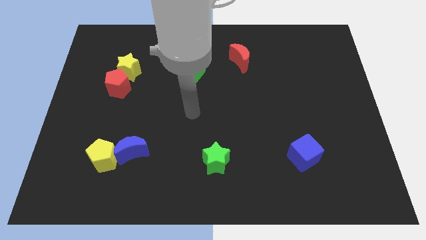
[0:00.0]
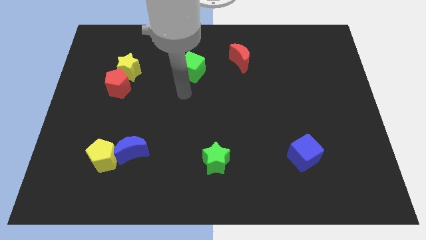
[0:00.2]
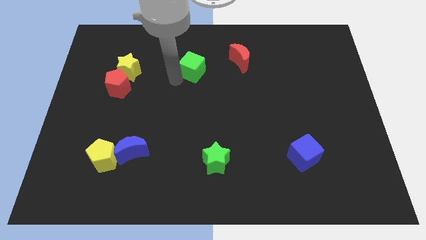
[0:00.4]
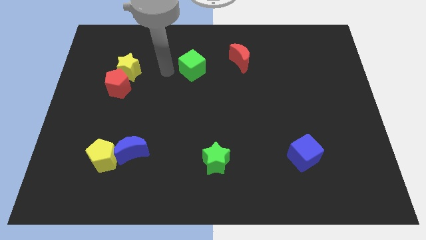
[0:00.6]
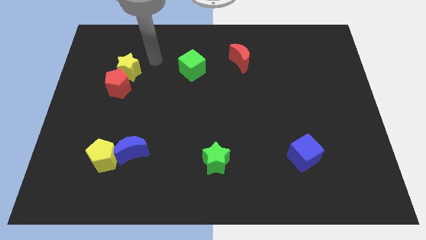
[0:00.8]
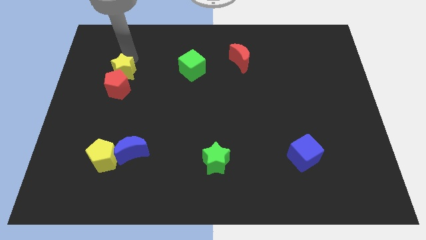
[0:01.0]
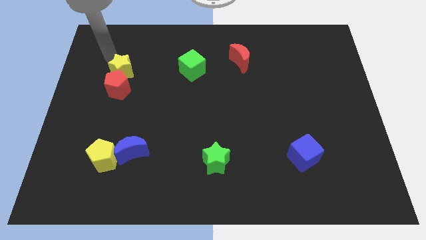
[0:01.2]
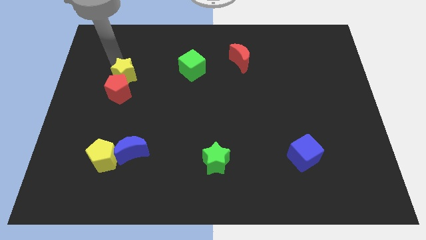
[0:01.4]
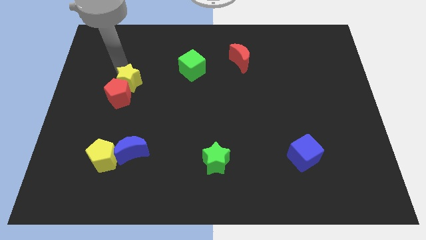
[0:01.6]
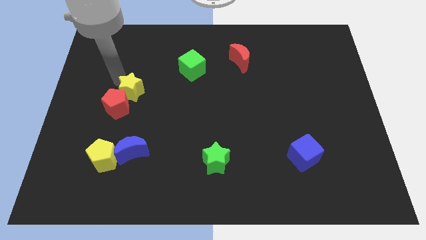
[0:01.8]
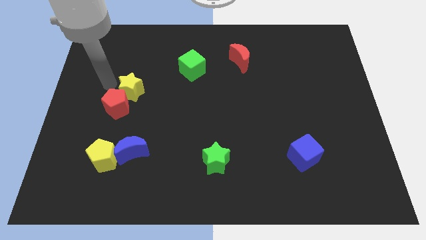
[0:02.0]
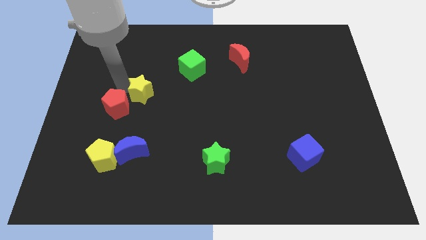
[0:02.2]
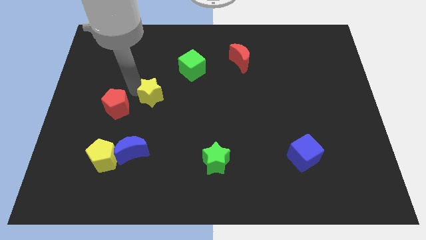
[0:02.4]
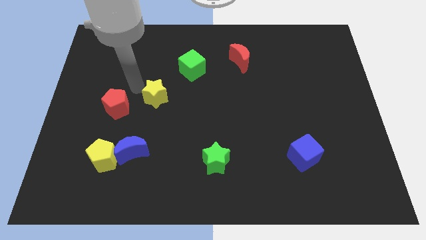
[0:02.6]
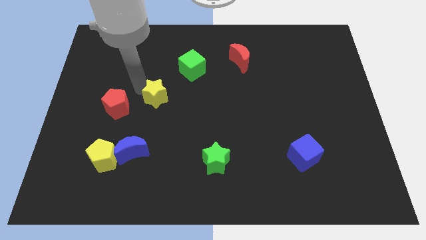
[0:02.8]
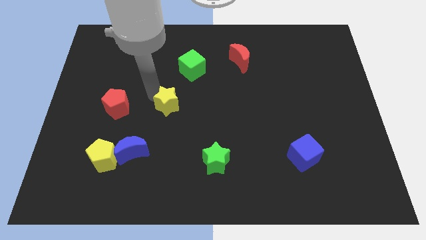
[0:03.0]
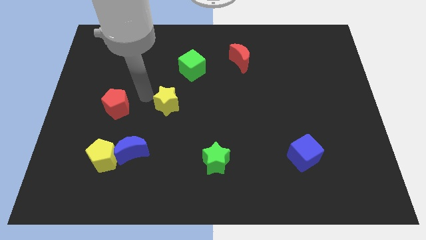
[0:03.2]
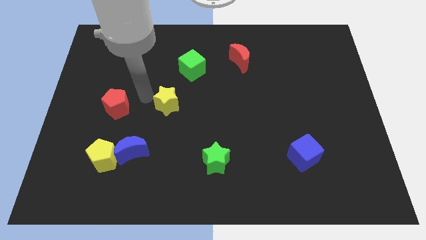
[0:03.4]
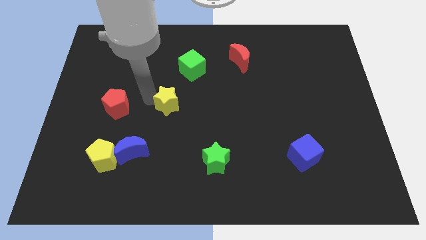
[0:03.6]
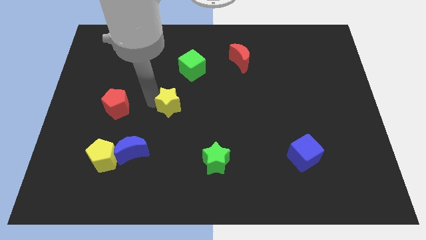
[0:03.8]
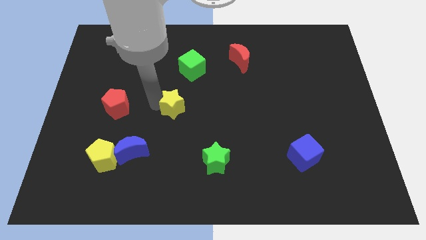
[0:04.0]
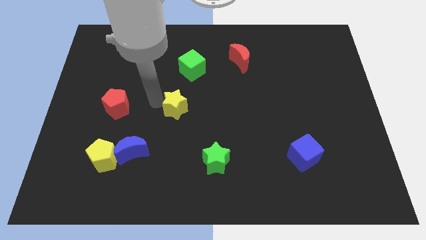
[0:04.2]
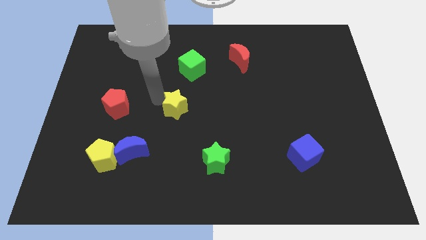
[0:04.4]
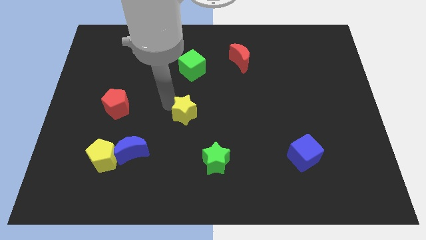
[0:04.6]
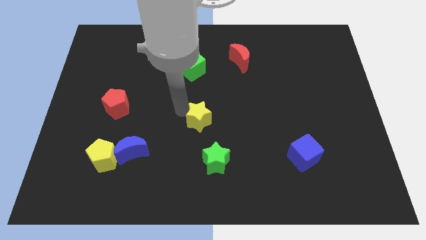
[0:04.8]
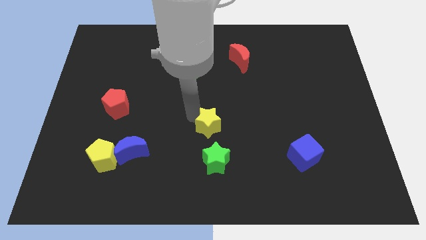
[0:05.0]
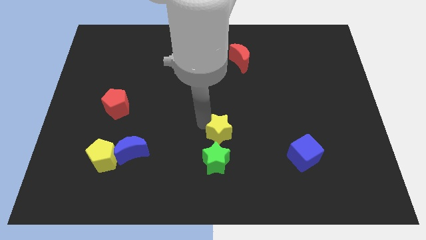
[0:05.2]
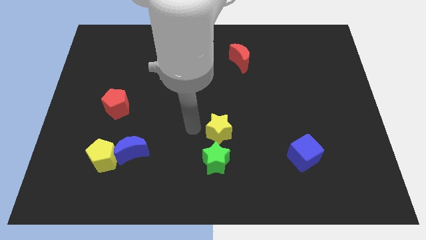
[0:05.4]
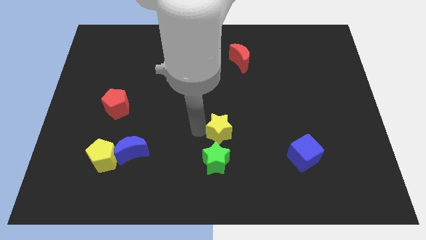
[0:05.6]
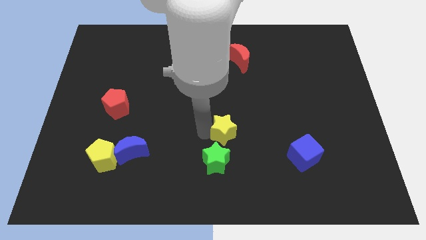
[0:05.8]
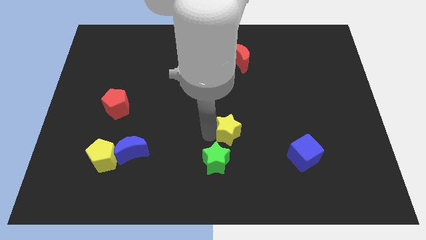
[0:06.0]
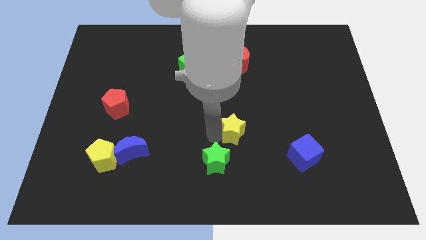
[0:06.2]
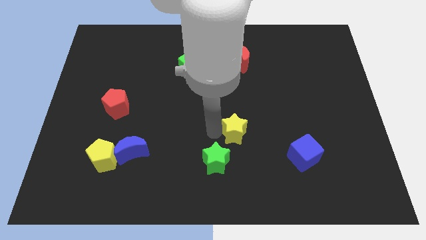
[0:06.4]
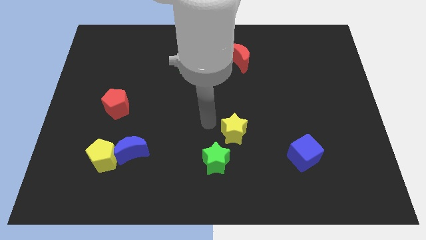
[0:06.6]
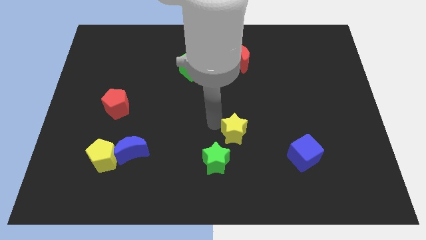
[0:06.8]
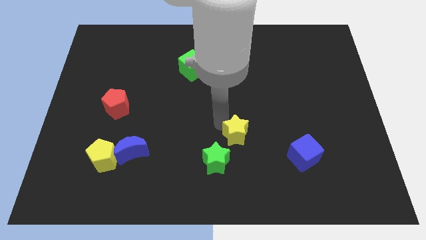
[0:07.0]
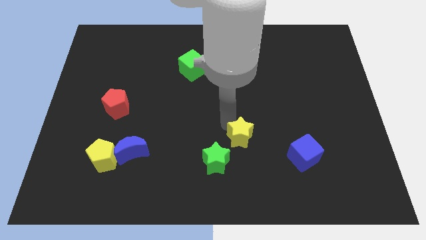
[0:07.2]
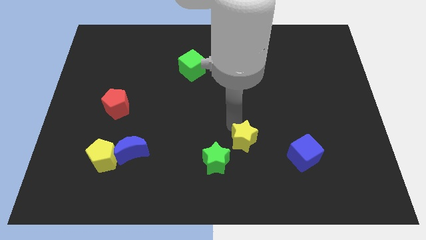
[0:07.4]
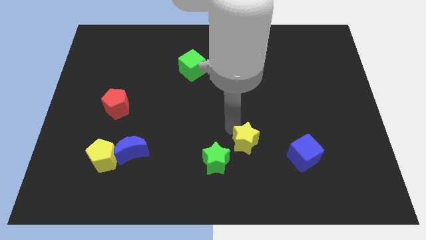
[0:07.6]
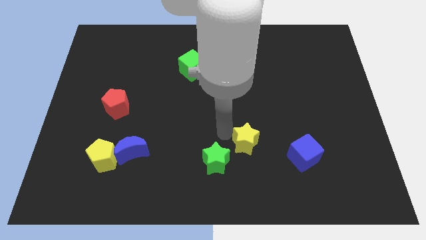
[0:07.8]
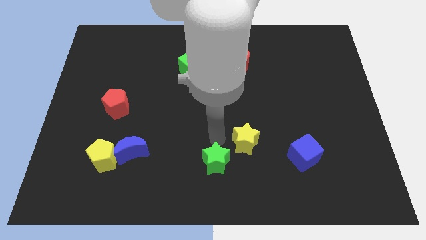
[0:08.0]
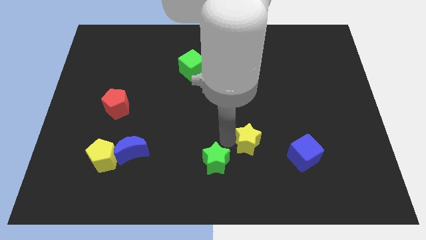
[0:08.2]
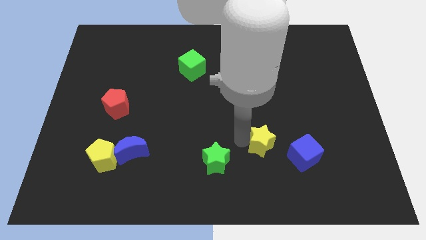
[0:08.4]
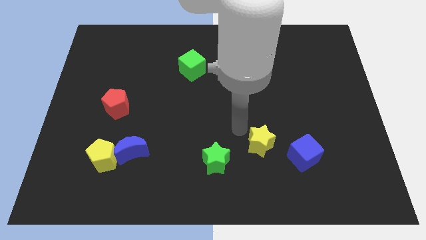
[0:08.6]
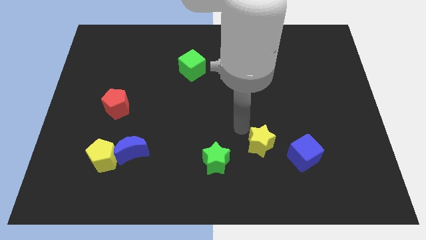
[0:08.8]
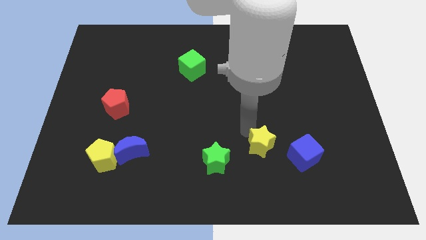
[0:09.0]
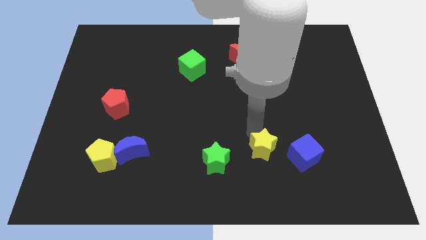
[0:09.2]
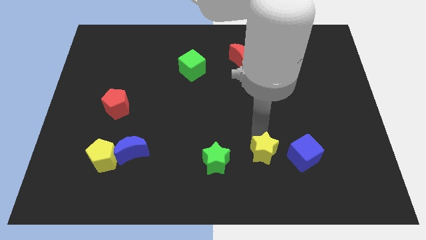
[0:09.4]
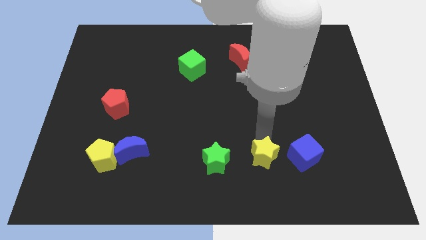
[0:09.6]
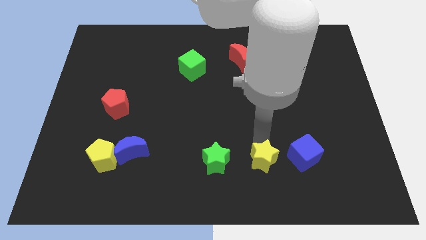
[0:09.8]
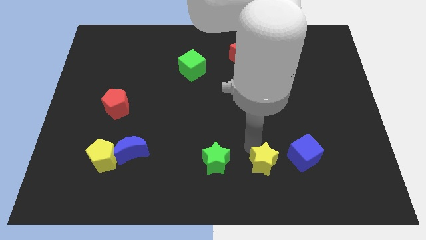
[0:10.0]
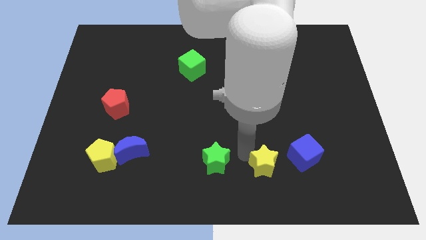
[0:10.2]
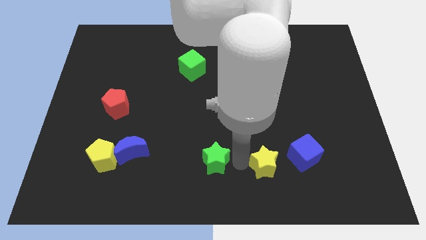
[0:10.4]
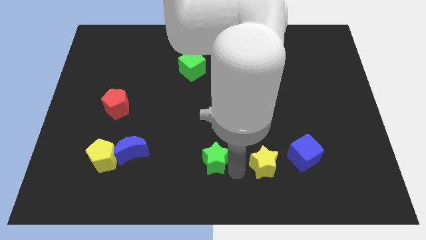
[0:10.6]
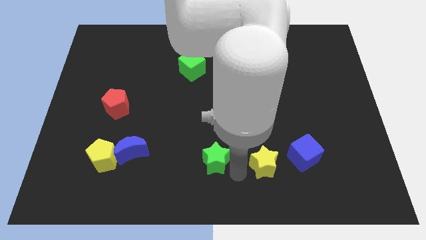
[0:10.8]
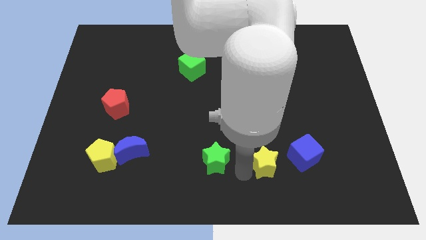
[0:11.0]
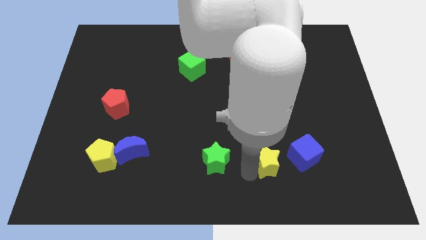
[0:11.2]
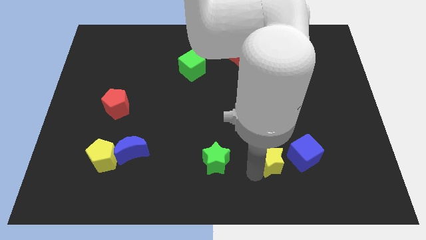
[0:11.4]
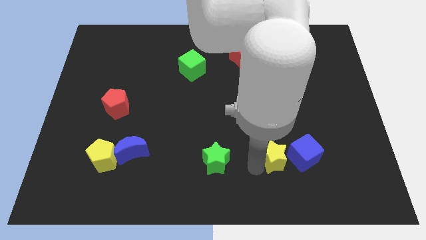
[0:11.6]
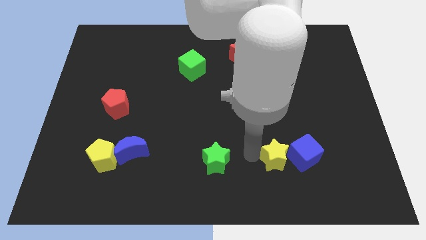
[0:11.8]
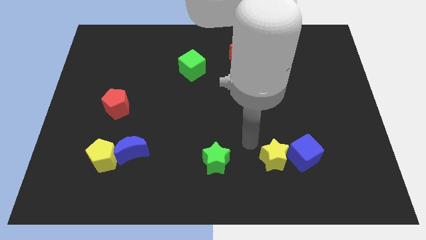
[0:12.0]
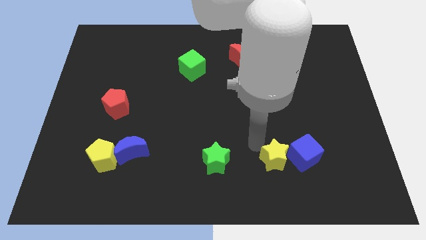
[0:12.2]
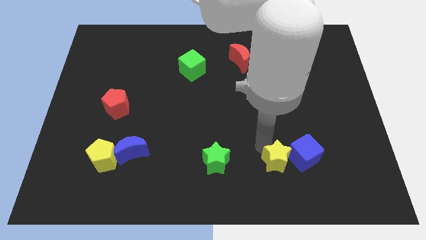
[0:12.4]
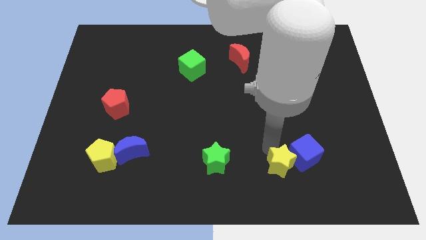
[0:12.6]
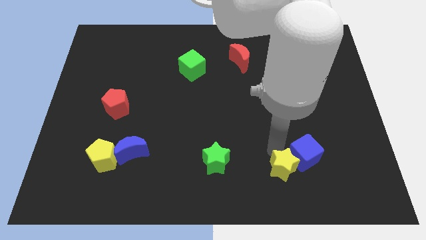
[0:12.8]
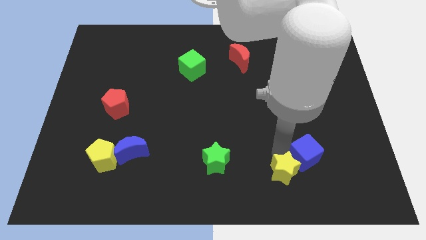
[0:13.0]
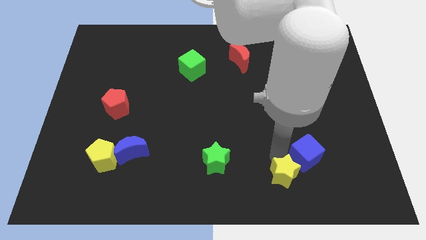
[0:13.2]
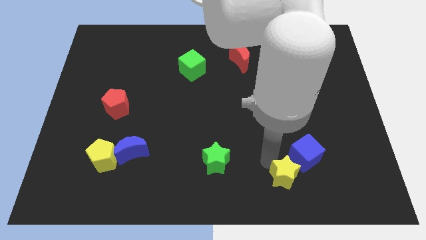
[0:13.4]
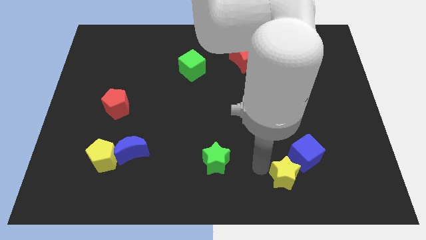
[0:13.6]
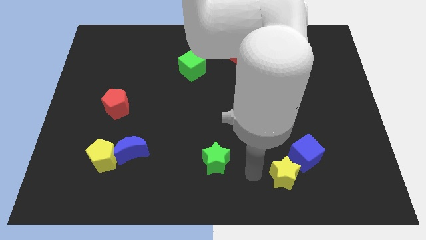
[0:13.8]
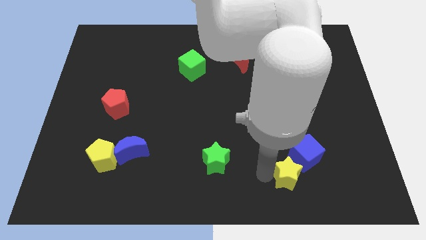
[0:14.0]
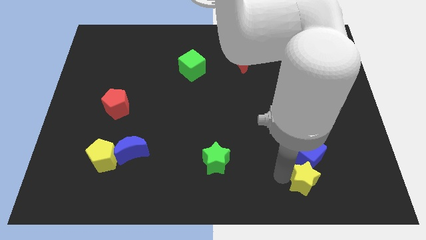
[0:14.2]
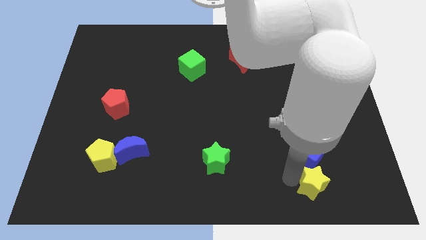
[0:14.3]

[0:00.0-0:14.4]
move the yellow star to the bottom right of the blue cube
